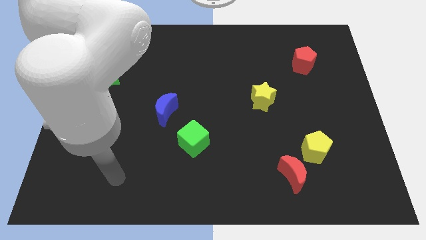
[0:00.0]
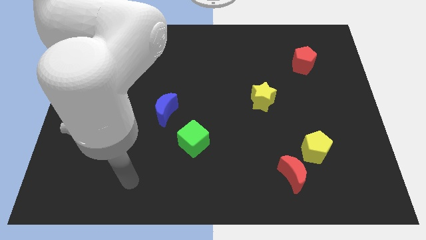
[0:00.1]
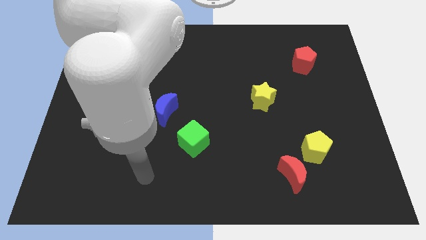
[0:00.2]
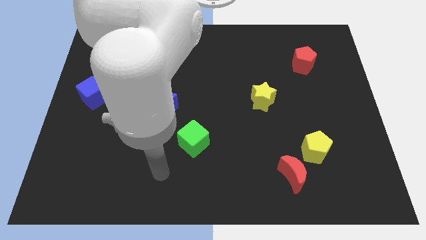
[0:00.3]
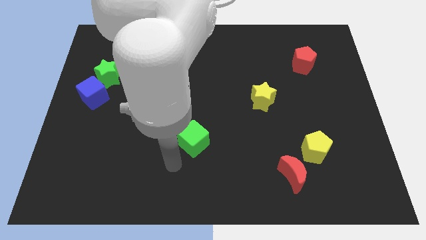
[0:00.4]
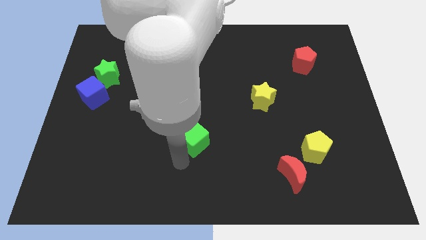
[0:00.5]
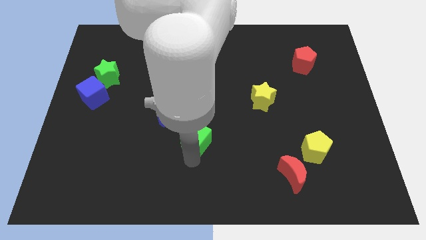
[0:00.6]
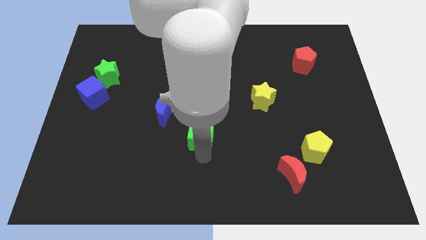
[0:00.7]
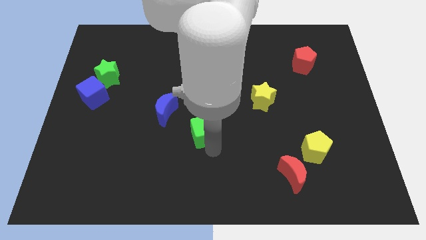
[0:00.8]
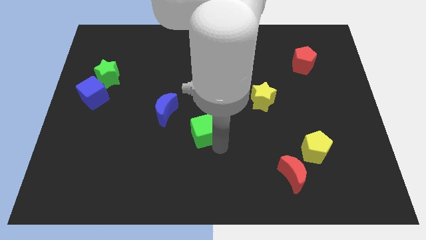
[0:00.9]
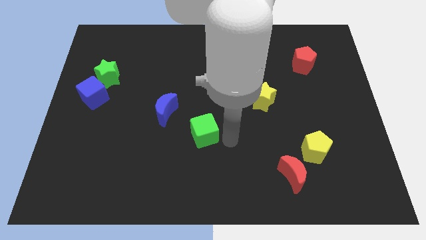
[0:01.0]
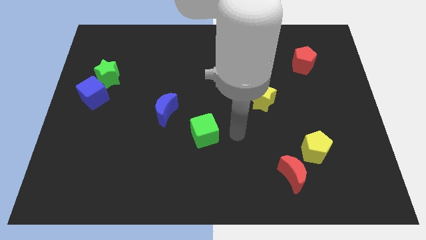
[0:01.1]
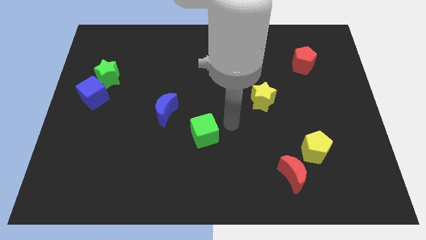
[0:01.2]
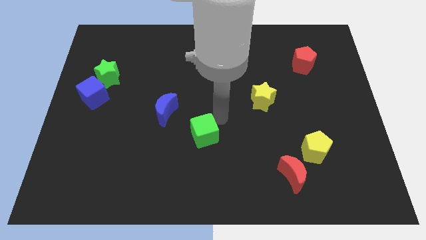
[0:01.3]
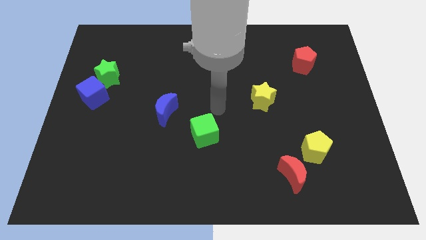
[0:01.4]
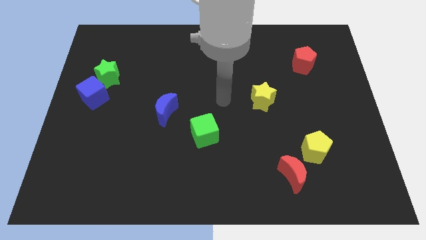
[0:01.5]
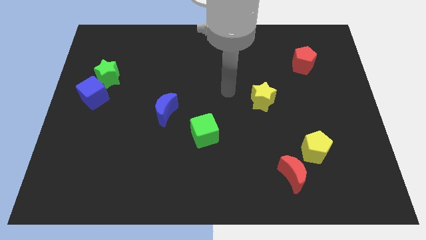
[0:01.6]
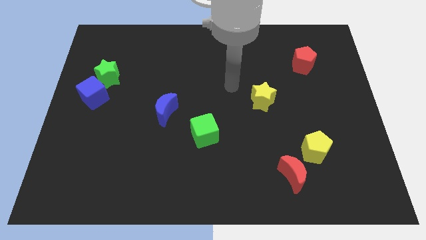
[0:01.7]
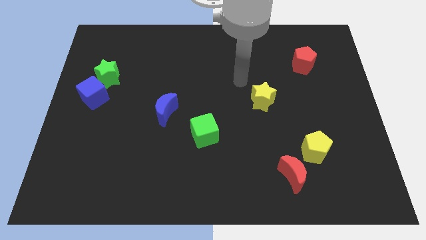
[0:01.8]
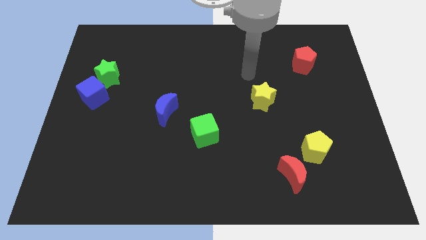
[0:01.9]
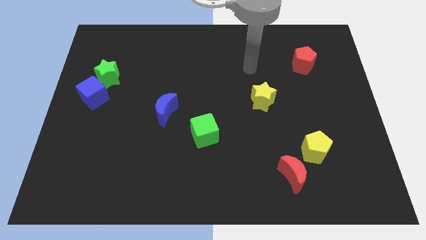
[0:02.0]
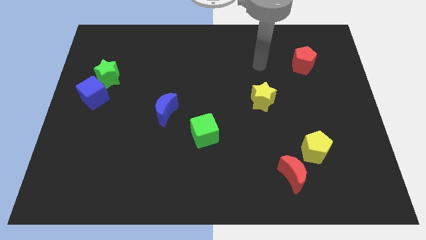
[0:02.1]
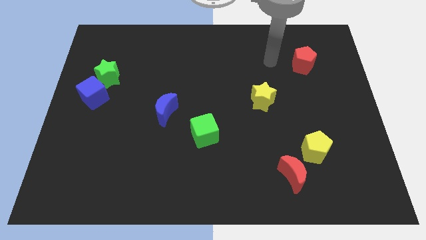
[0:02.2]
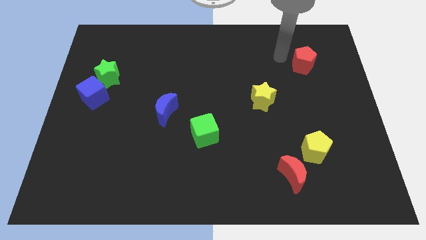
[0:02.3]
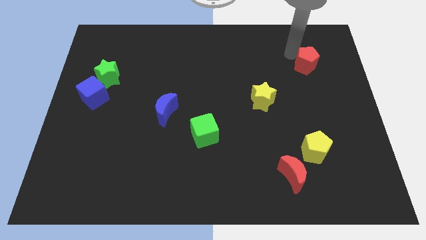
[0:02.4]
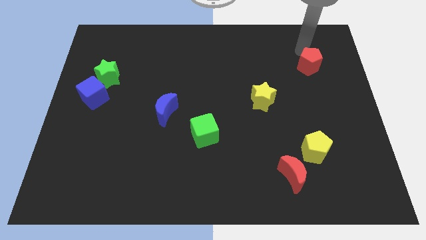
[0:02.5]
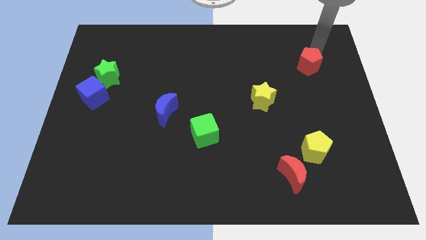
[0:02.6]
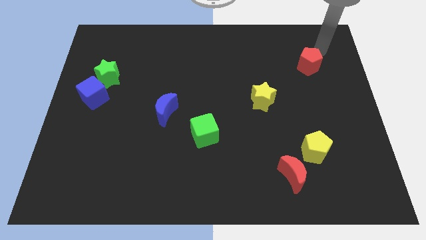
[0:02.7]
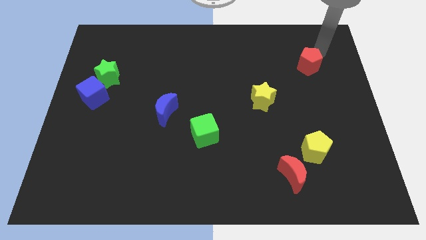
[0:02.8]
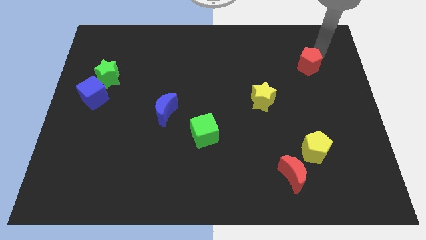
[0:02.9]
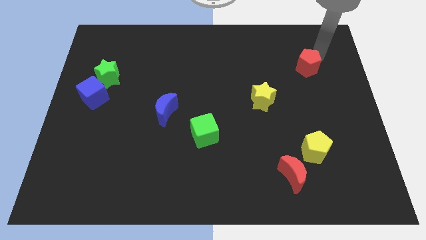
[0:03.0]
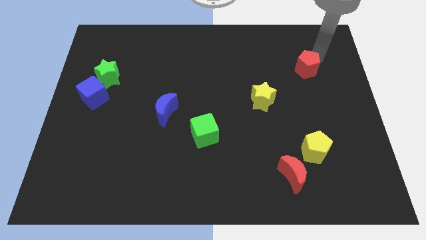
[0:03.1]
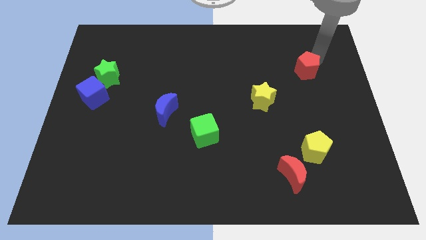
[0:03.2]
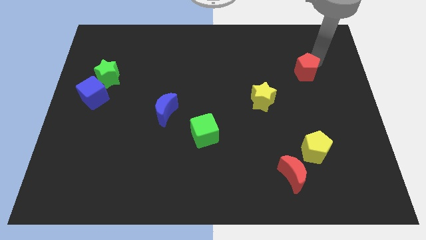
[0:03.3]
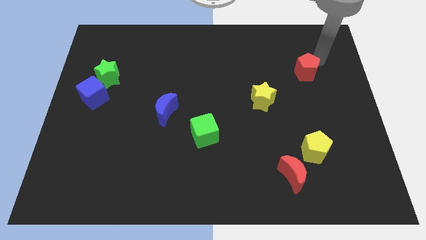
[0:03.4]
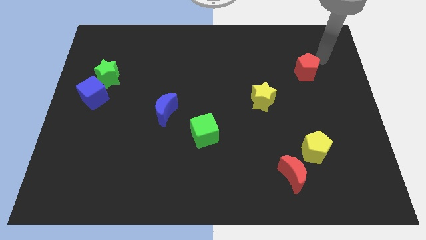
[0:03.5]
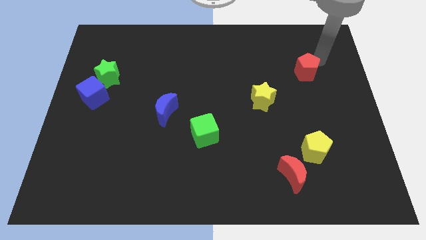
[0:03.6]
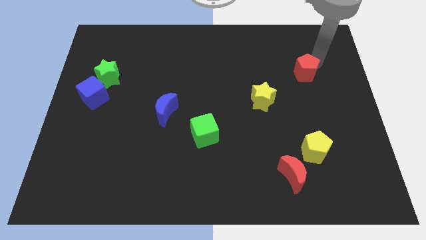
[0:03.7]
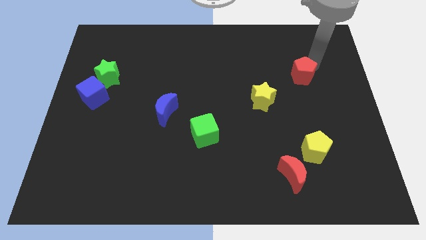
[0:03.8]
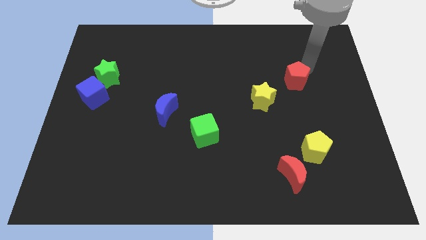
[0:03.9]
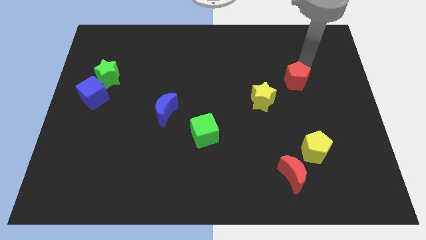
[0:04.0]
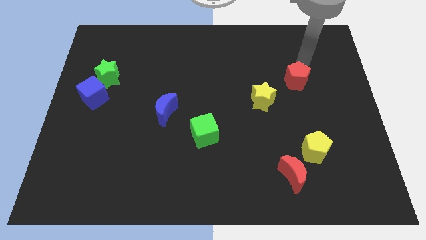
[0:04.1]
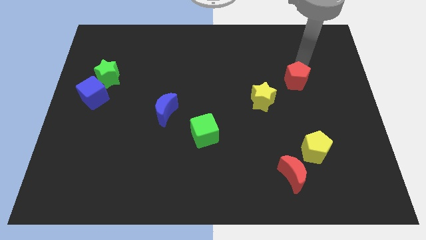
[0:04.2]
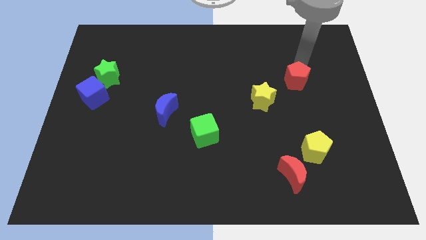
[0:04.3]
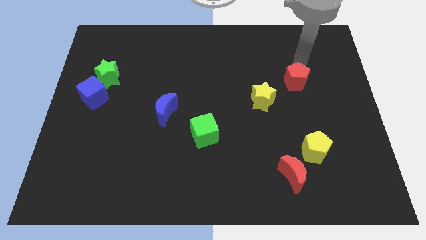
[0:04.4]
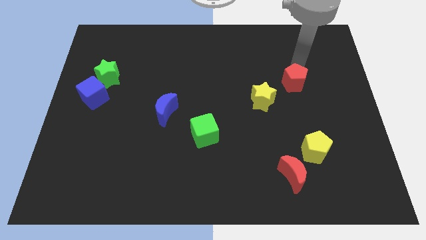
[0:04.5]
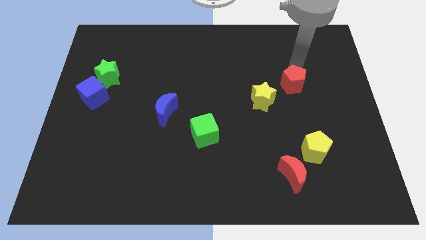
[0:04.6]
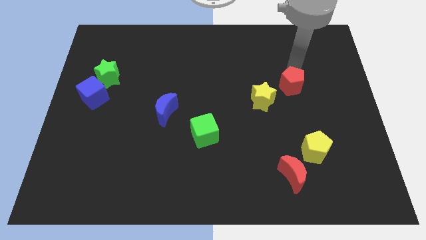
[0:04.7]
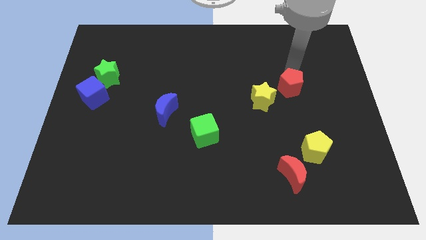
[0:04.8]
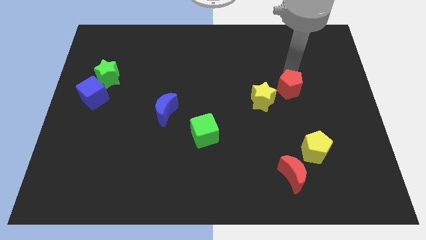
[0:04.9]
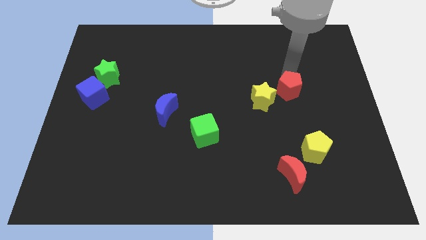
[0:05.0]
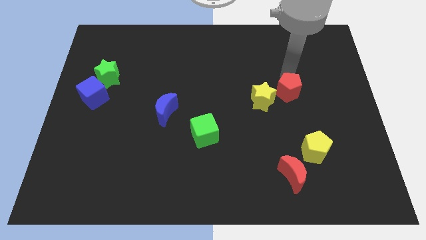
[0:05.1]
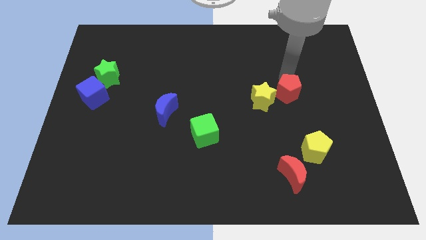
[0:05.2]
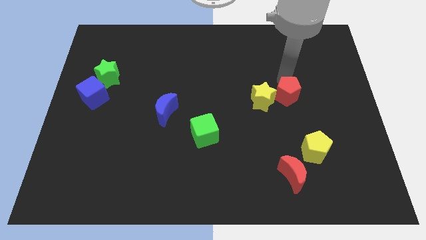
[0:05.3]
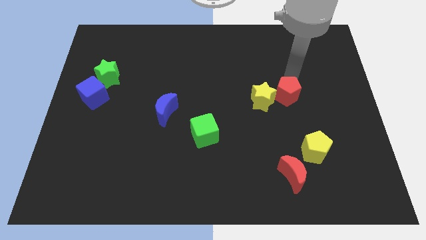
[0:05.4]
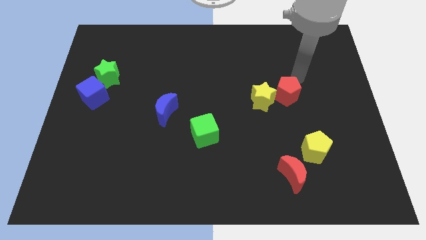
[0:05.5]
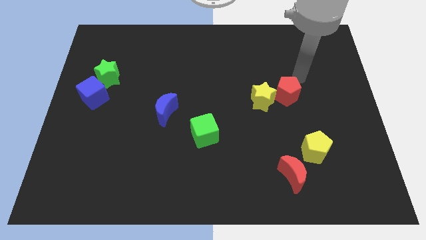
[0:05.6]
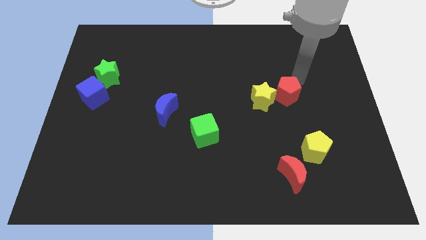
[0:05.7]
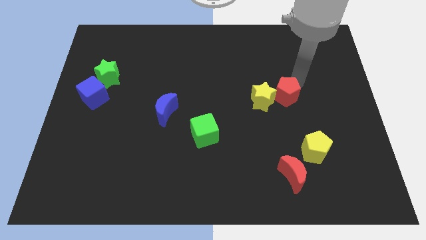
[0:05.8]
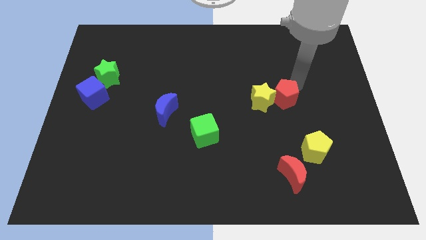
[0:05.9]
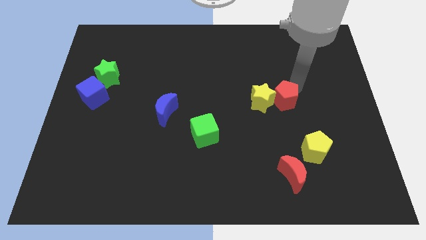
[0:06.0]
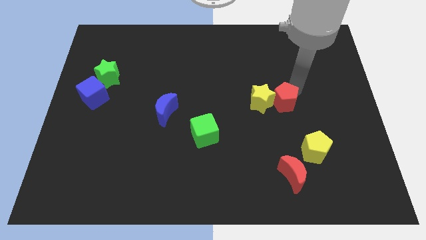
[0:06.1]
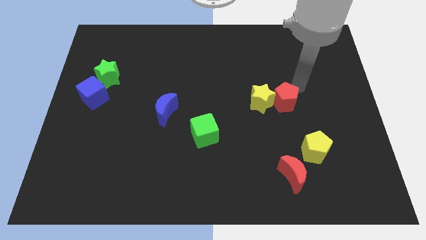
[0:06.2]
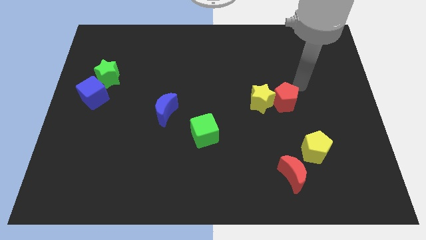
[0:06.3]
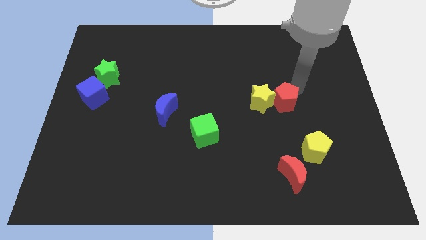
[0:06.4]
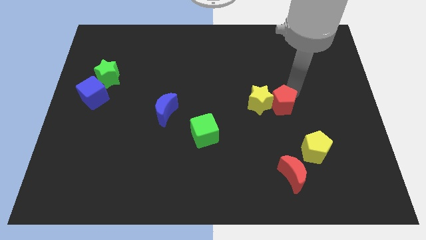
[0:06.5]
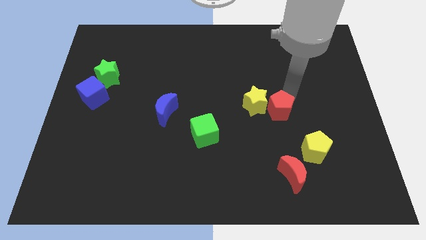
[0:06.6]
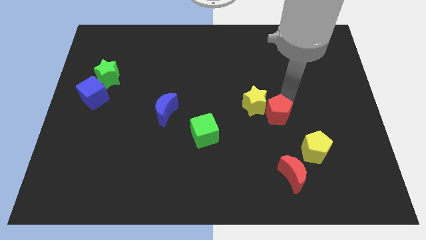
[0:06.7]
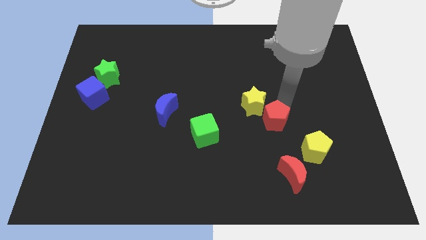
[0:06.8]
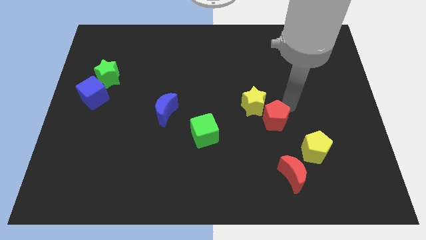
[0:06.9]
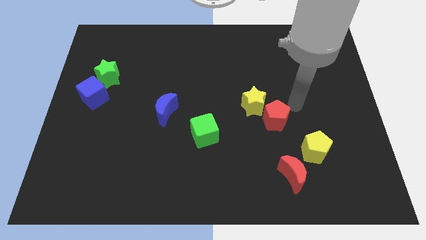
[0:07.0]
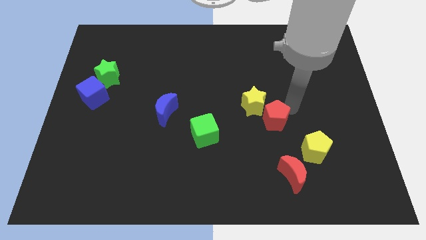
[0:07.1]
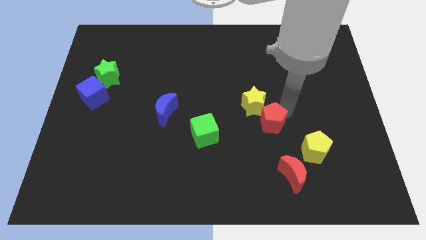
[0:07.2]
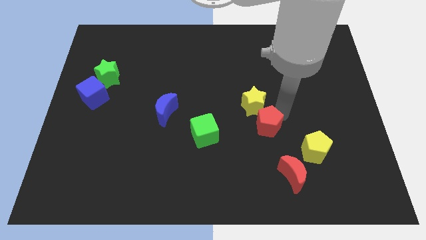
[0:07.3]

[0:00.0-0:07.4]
slide the red pentagon downwards and left diagonally

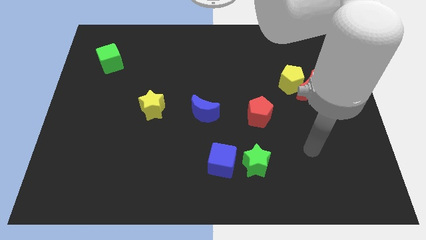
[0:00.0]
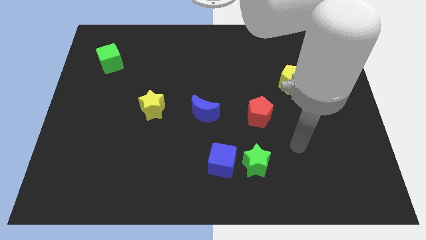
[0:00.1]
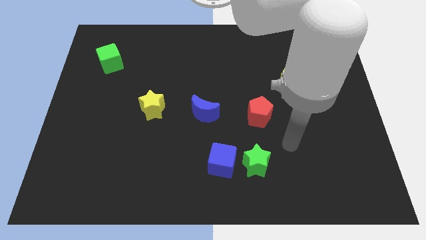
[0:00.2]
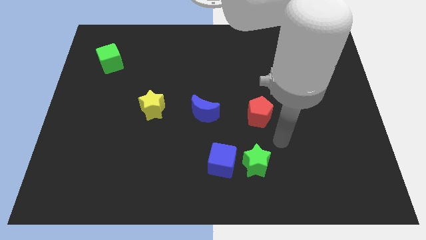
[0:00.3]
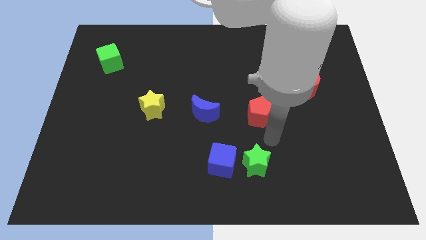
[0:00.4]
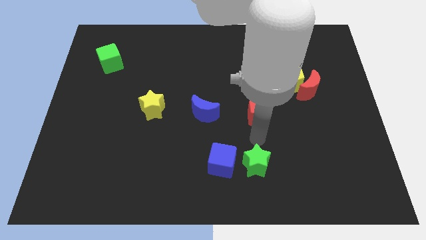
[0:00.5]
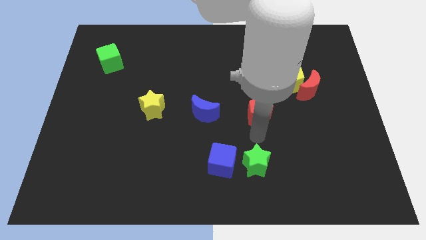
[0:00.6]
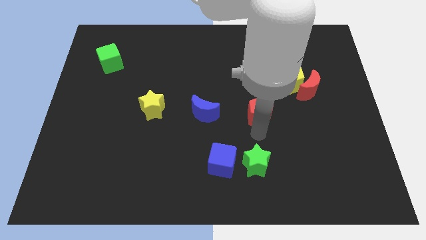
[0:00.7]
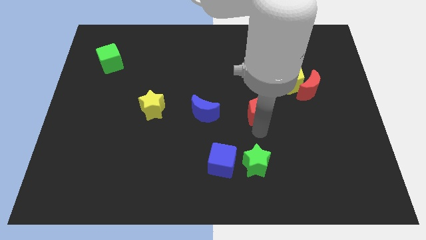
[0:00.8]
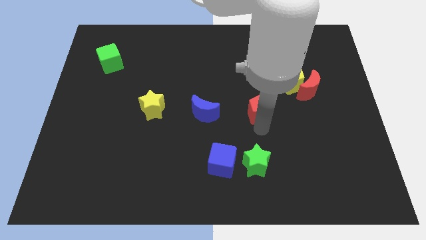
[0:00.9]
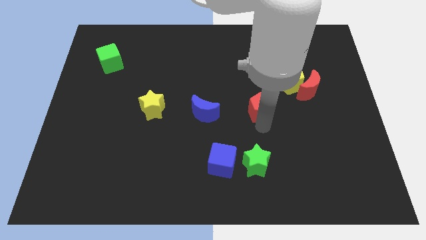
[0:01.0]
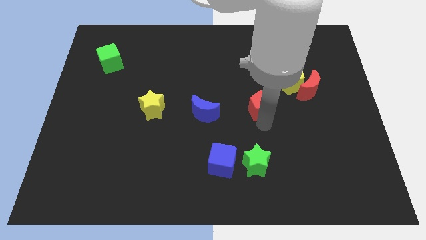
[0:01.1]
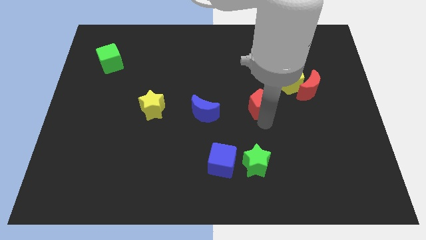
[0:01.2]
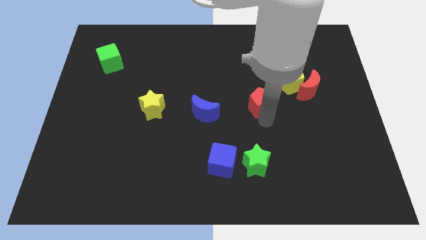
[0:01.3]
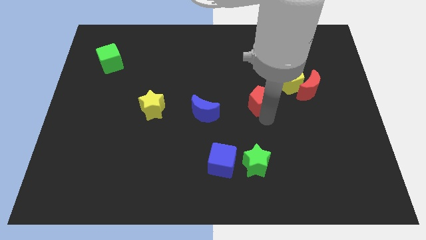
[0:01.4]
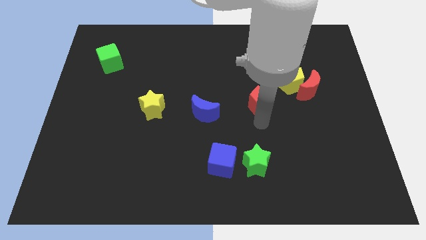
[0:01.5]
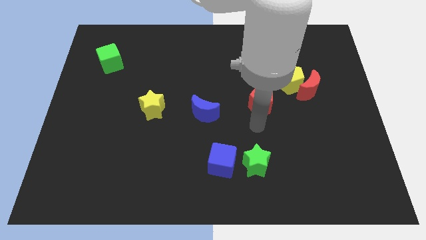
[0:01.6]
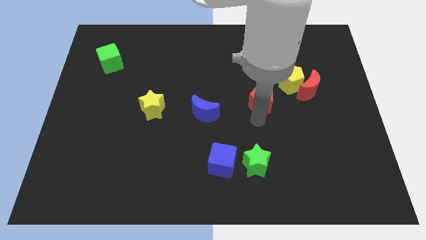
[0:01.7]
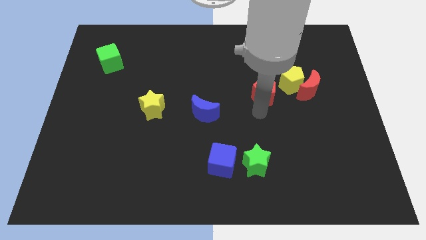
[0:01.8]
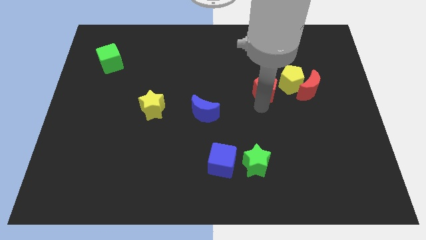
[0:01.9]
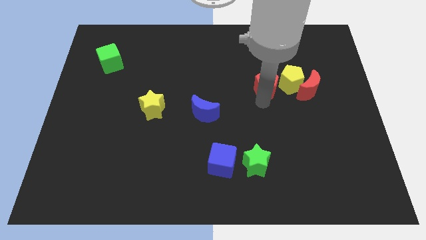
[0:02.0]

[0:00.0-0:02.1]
slide the red pentagon a bit up and right diagonally
